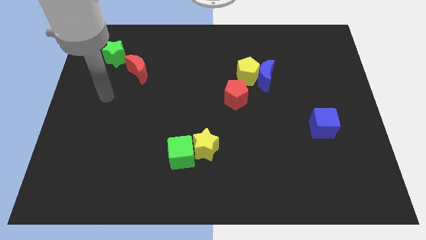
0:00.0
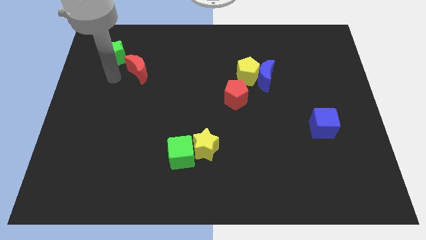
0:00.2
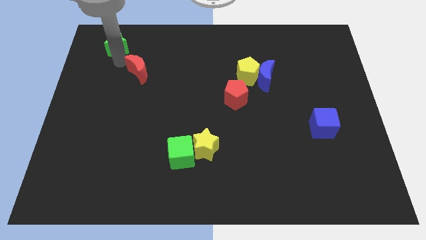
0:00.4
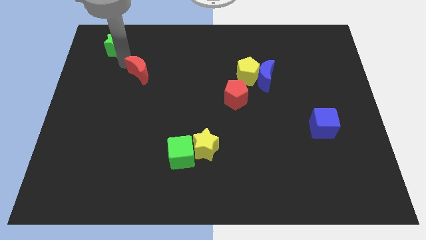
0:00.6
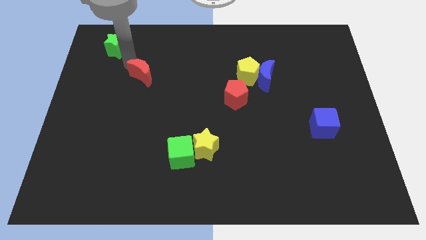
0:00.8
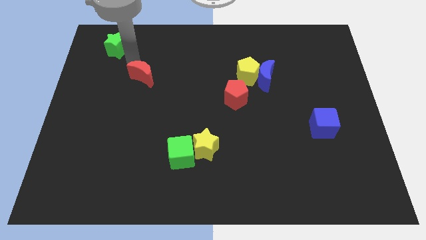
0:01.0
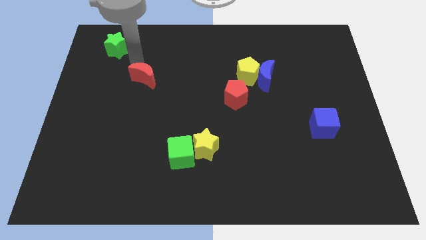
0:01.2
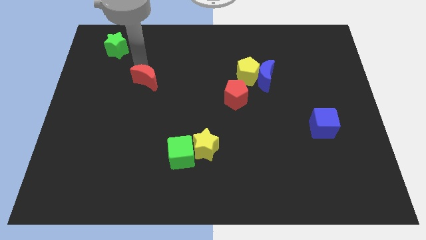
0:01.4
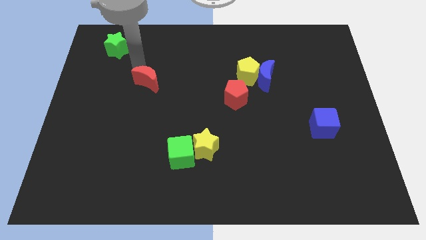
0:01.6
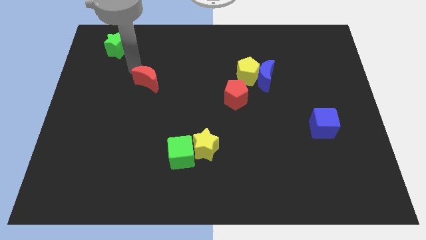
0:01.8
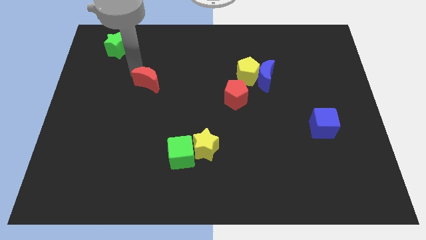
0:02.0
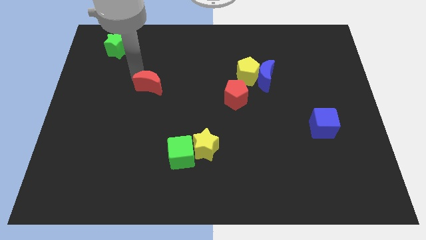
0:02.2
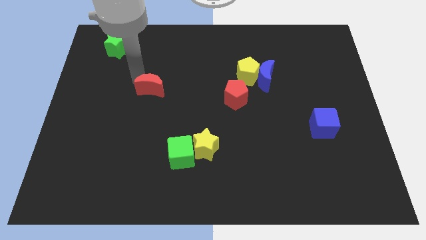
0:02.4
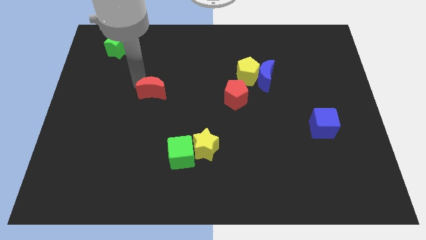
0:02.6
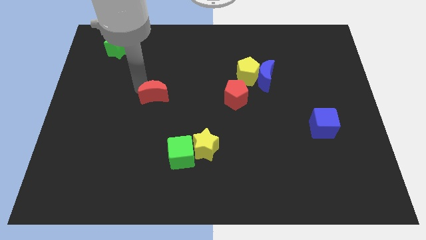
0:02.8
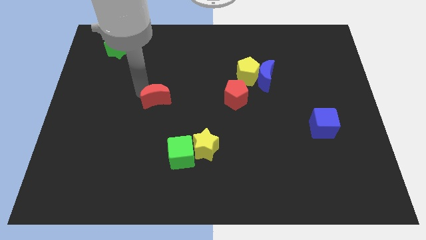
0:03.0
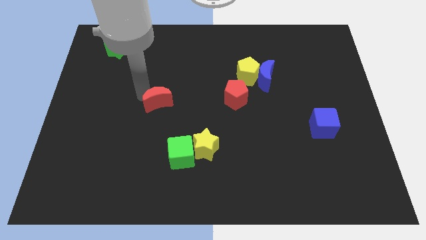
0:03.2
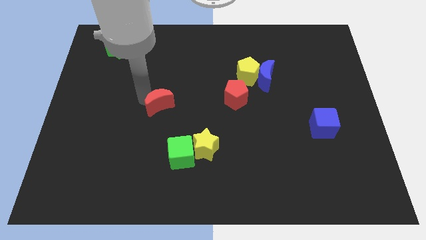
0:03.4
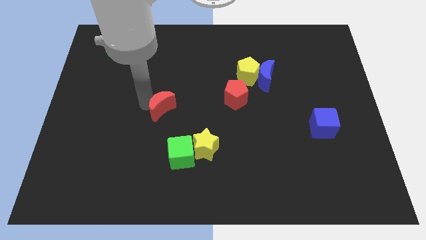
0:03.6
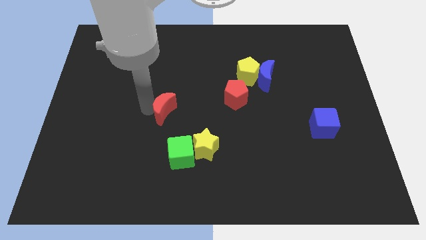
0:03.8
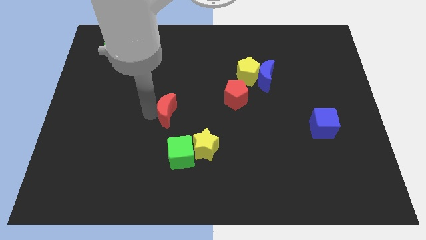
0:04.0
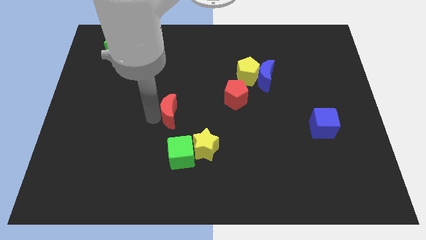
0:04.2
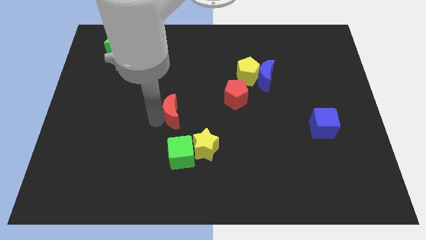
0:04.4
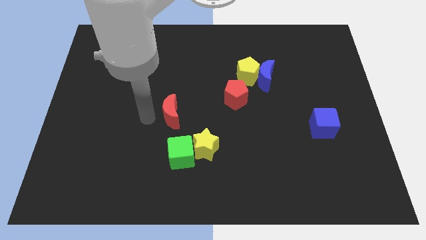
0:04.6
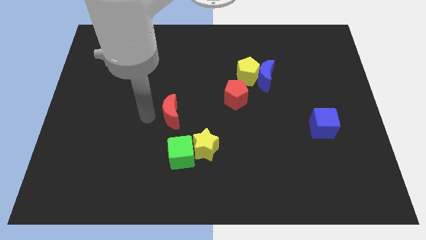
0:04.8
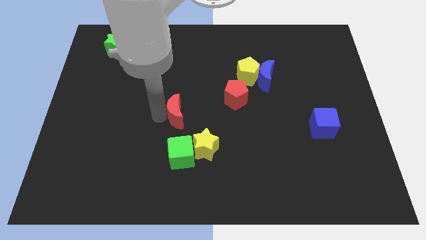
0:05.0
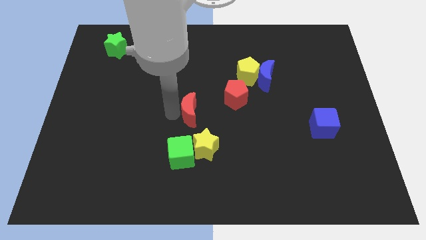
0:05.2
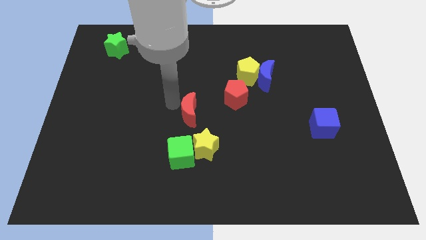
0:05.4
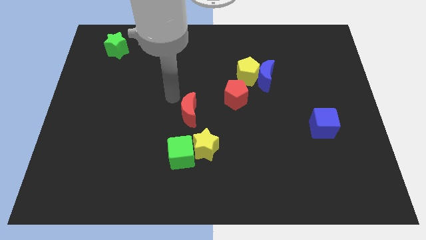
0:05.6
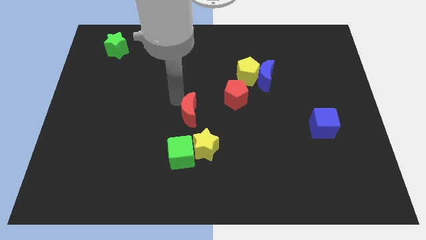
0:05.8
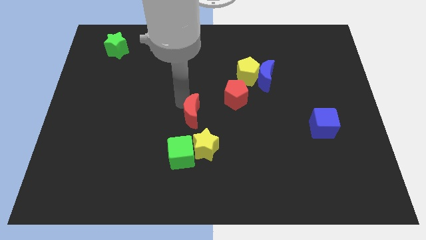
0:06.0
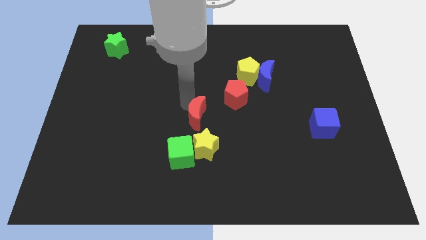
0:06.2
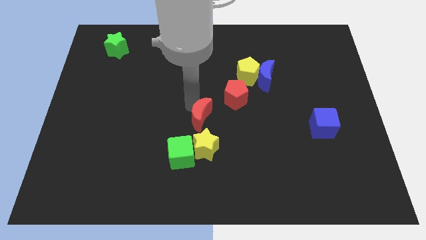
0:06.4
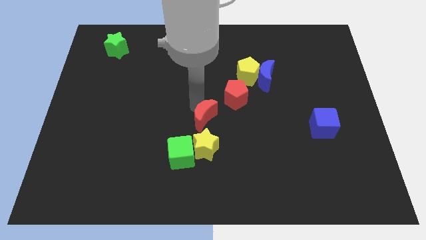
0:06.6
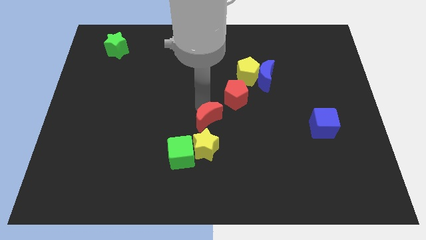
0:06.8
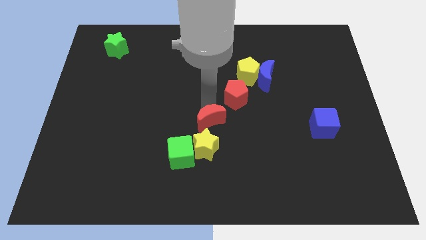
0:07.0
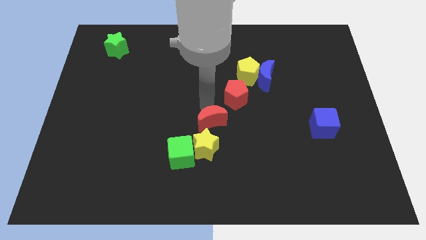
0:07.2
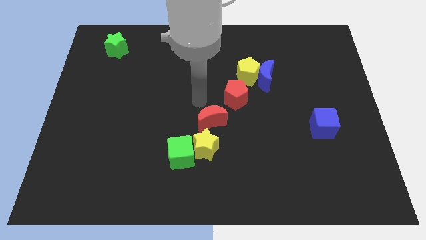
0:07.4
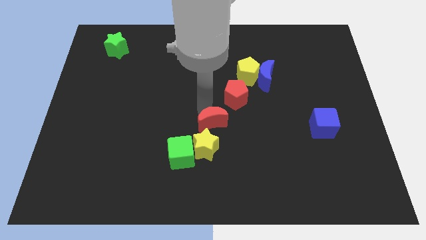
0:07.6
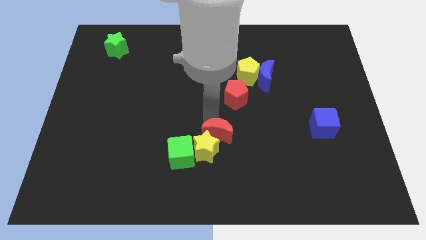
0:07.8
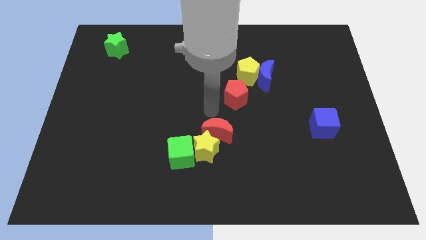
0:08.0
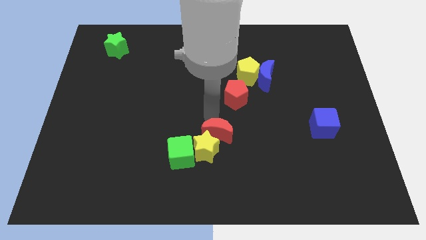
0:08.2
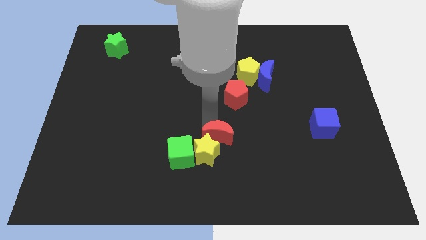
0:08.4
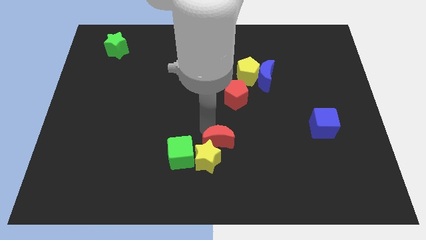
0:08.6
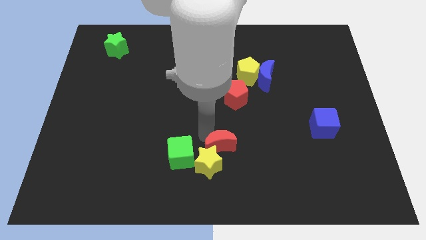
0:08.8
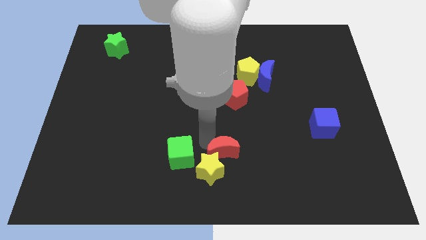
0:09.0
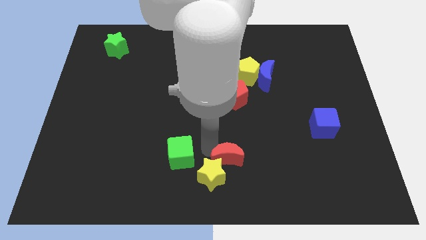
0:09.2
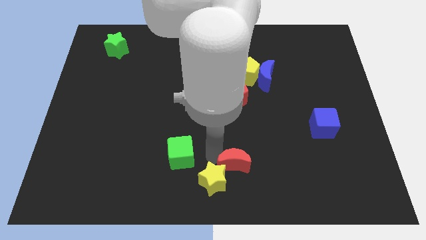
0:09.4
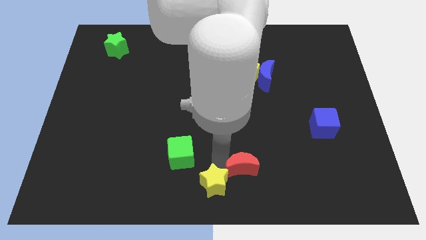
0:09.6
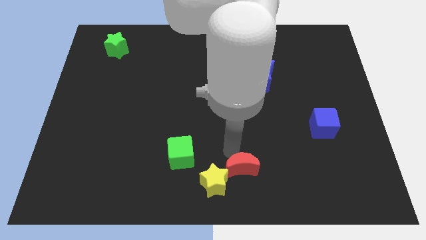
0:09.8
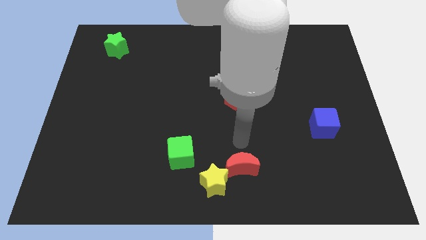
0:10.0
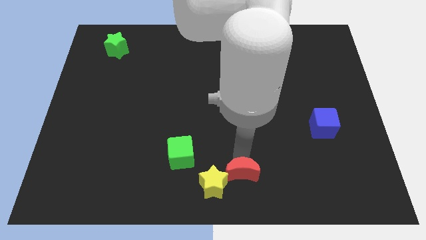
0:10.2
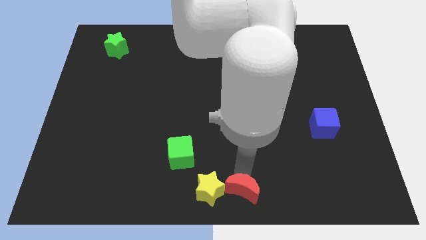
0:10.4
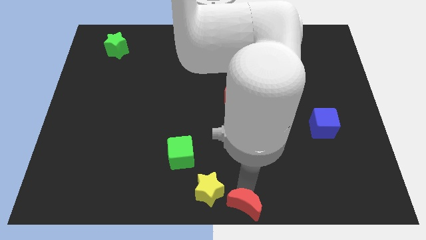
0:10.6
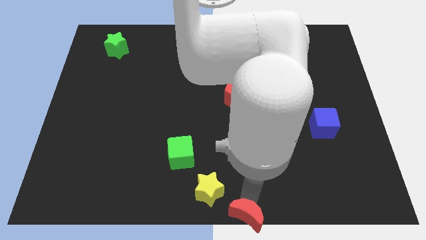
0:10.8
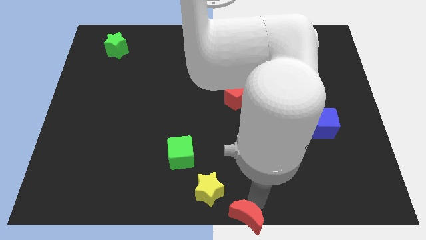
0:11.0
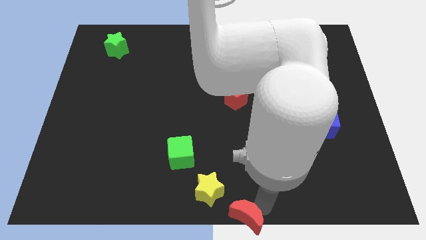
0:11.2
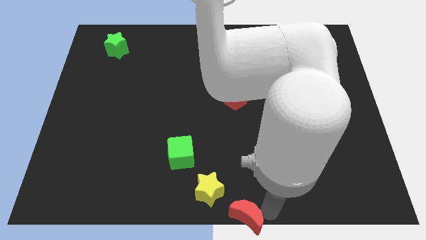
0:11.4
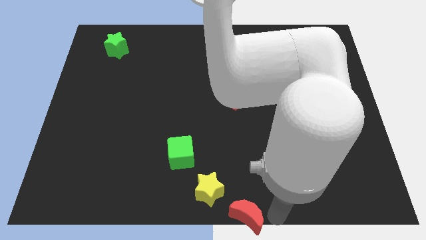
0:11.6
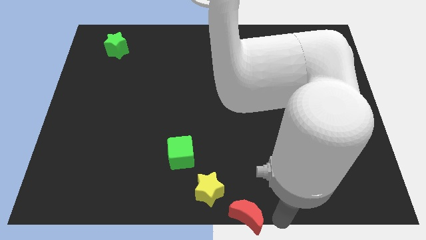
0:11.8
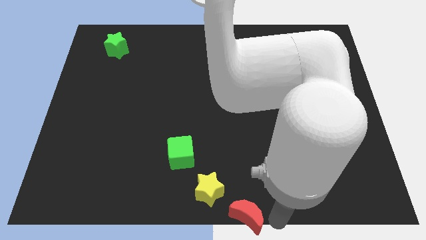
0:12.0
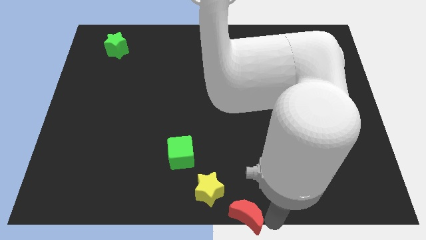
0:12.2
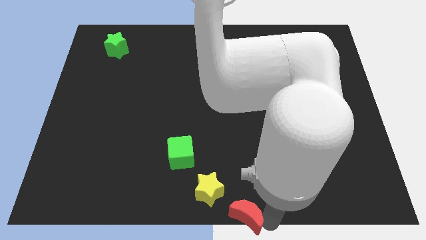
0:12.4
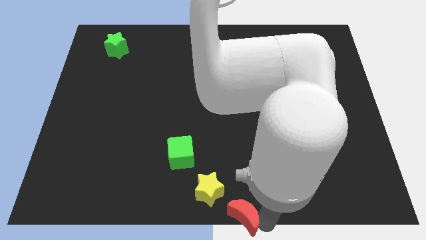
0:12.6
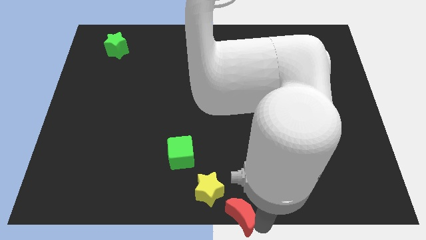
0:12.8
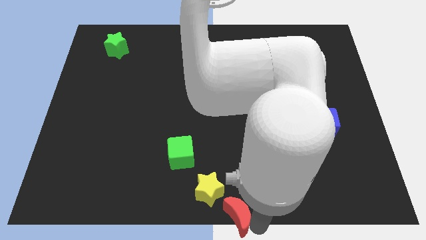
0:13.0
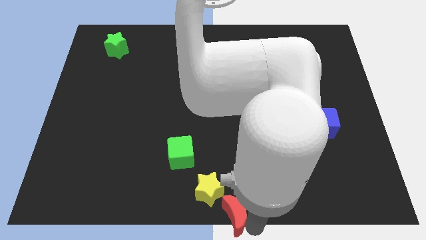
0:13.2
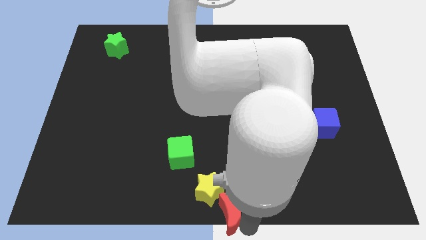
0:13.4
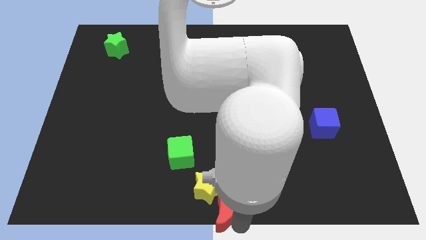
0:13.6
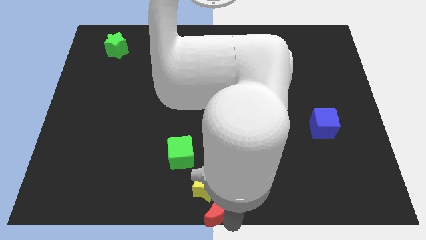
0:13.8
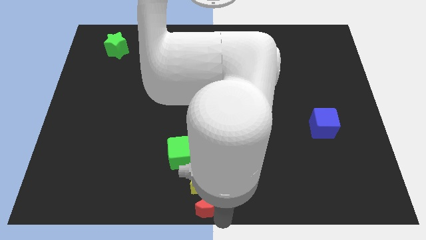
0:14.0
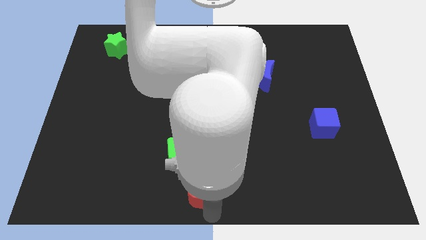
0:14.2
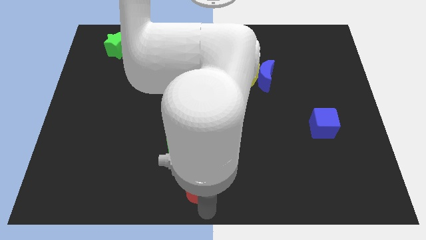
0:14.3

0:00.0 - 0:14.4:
put the red moon to the bottom right of the yellow star

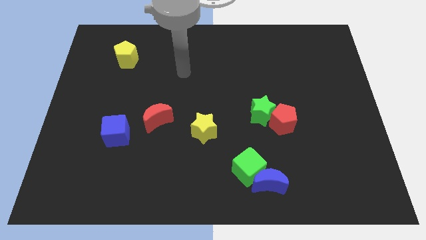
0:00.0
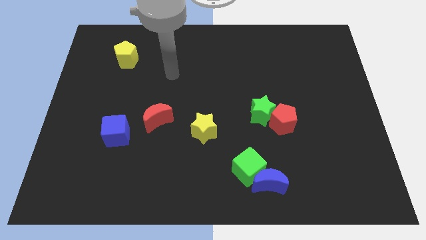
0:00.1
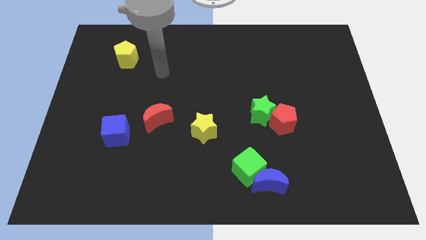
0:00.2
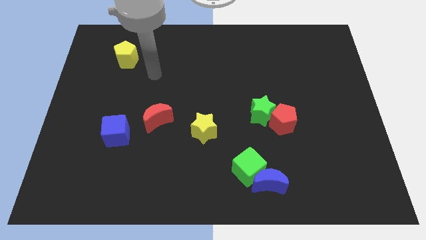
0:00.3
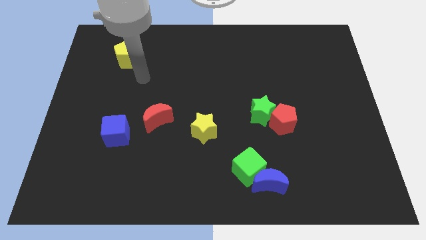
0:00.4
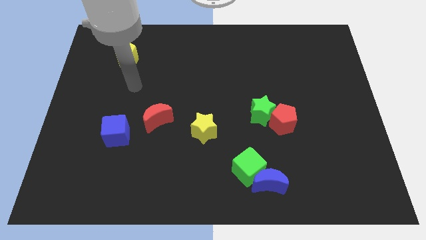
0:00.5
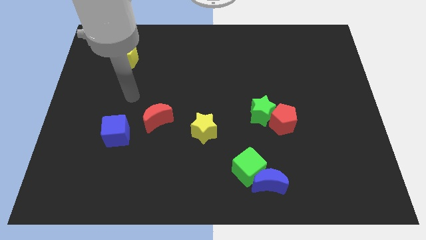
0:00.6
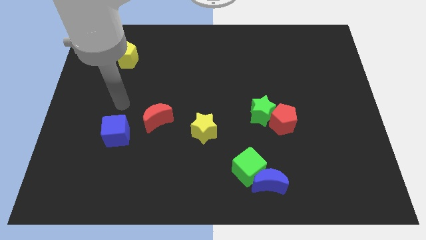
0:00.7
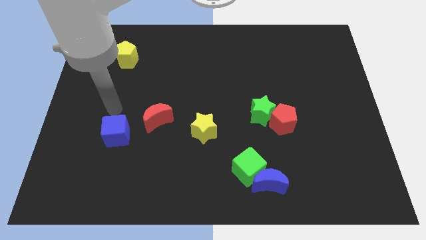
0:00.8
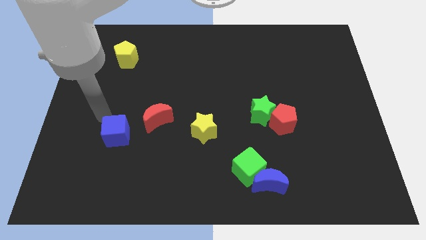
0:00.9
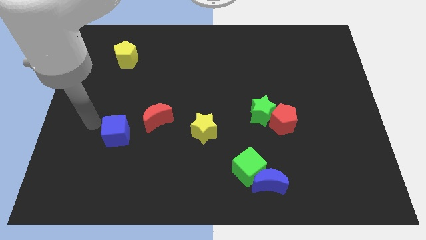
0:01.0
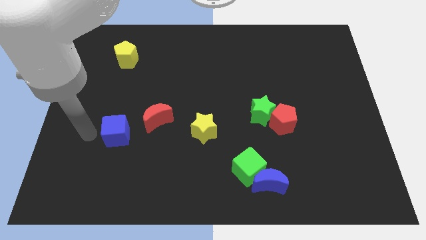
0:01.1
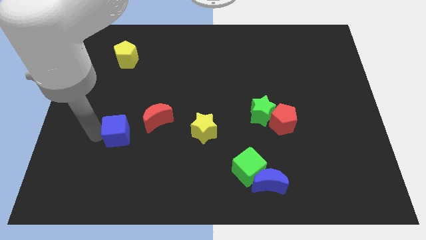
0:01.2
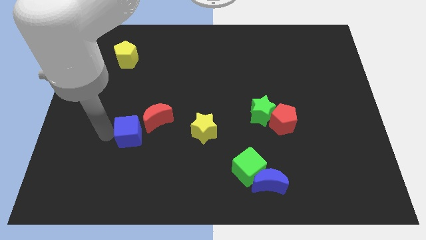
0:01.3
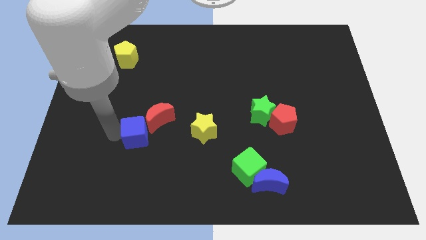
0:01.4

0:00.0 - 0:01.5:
put the blue cube left of the yellow star
